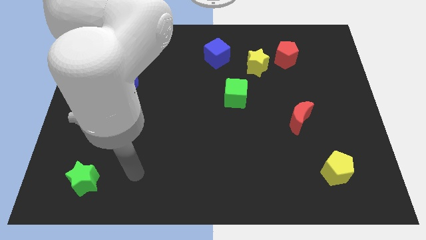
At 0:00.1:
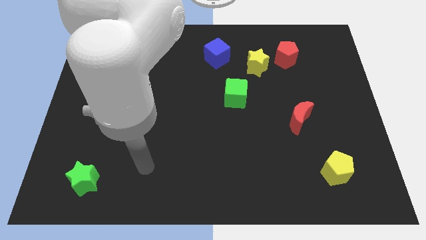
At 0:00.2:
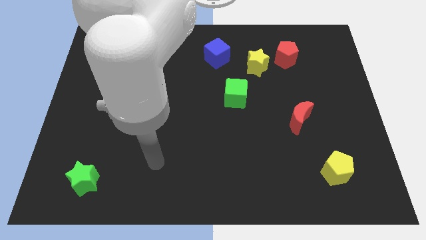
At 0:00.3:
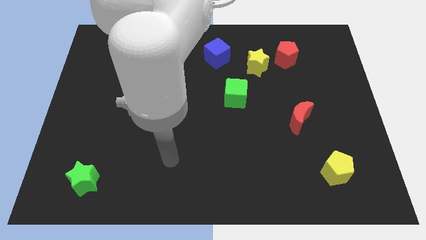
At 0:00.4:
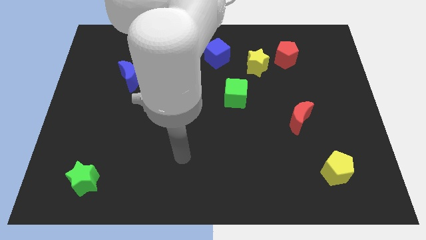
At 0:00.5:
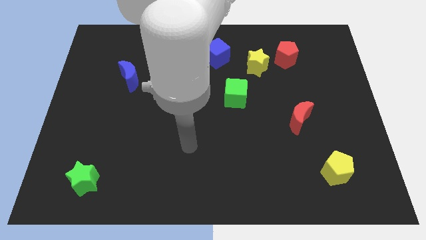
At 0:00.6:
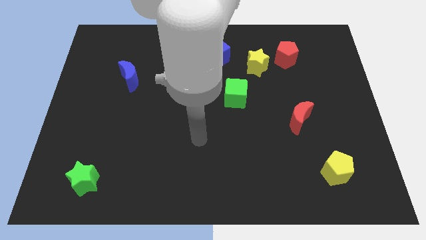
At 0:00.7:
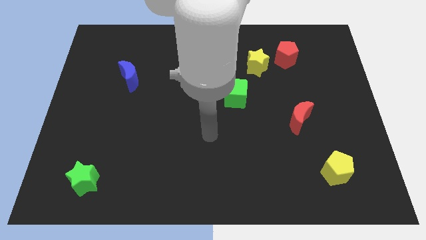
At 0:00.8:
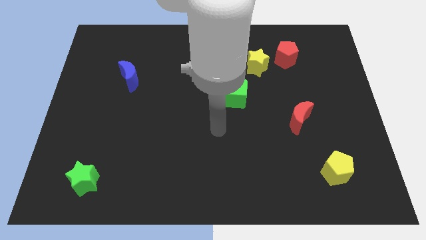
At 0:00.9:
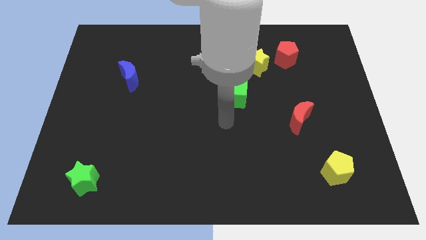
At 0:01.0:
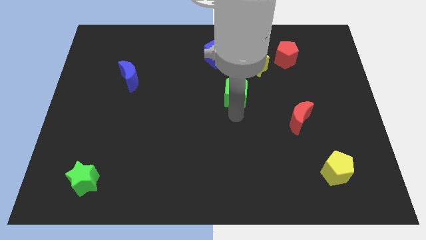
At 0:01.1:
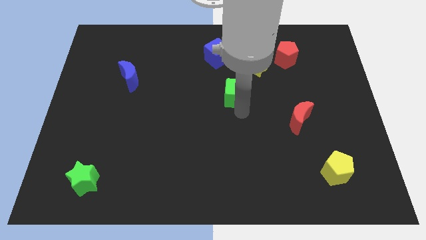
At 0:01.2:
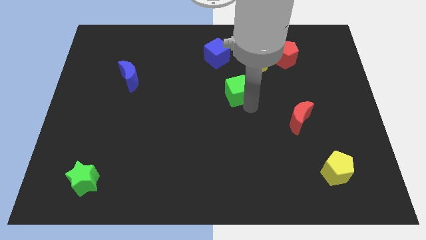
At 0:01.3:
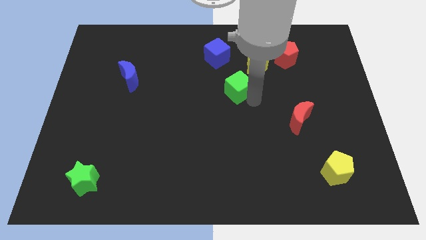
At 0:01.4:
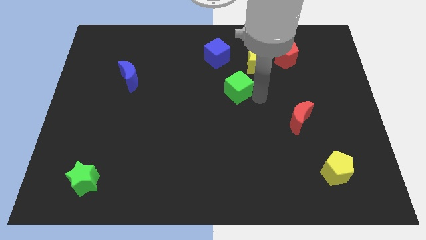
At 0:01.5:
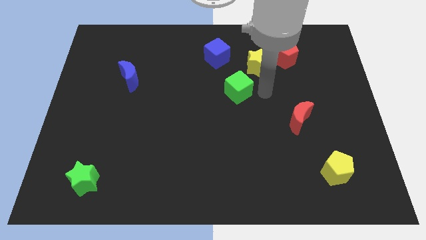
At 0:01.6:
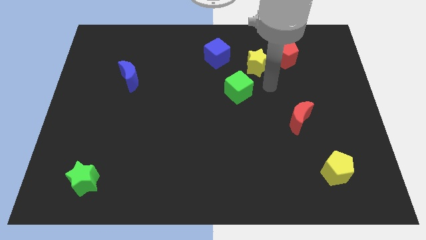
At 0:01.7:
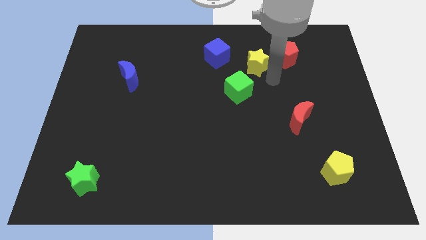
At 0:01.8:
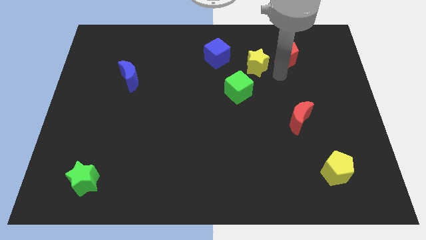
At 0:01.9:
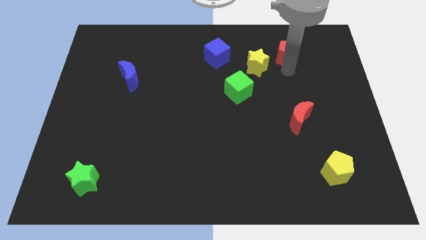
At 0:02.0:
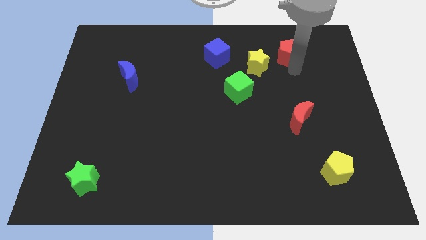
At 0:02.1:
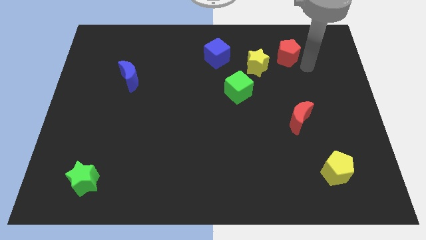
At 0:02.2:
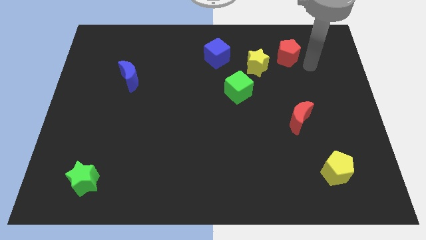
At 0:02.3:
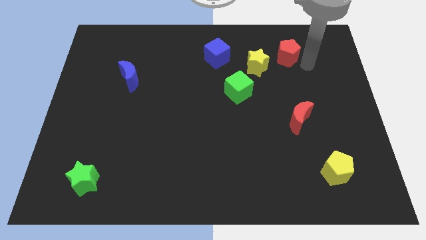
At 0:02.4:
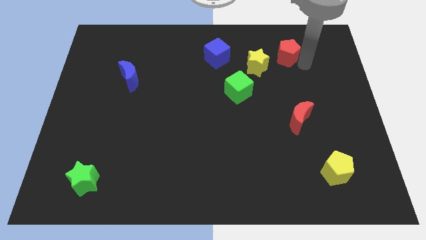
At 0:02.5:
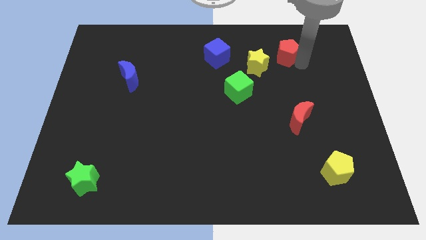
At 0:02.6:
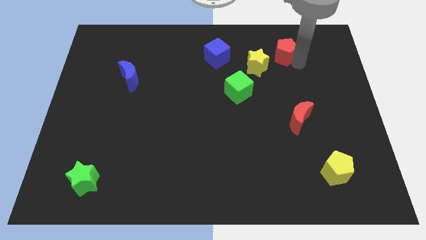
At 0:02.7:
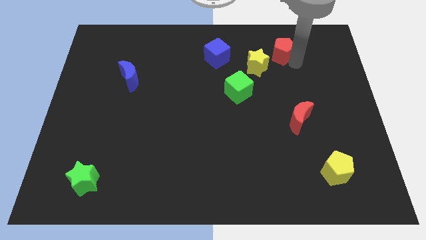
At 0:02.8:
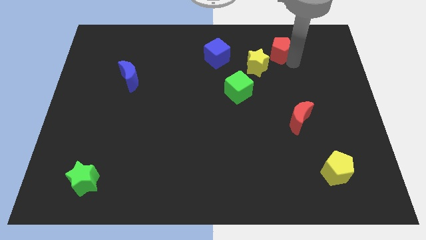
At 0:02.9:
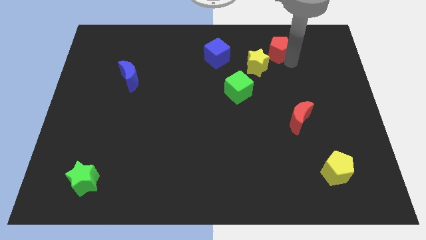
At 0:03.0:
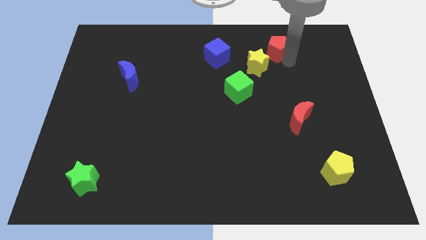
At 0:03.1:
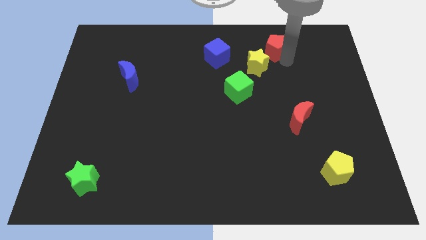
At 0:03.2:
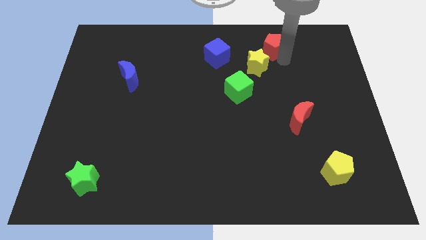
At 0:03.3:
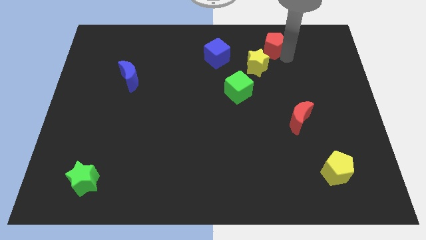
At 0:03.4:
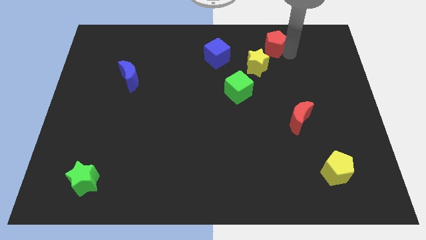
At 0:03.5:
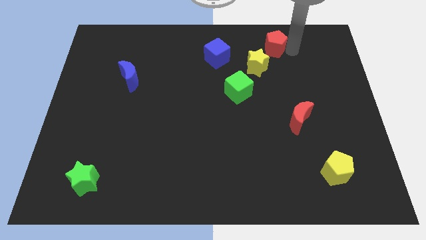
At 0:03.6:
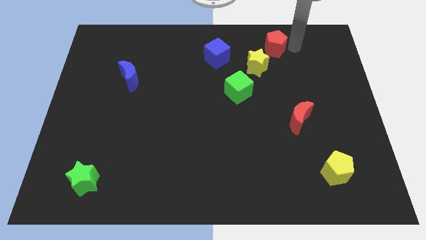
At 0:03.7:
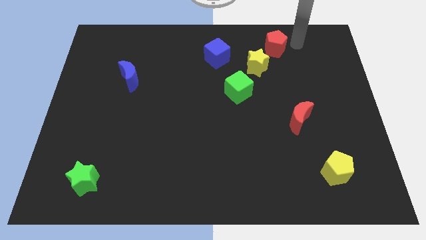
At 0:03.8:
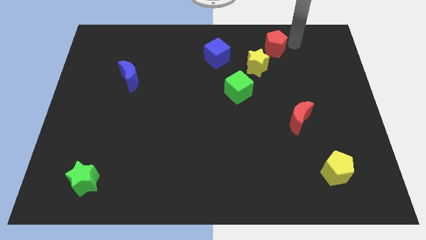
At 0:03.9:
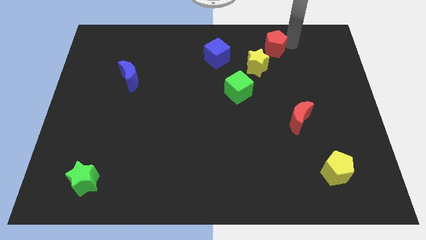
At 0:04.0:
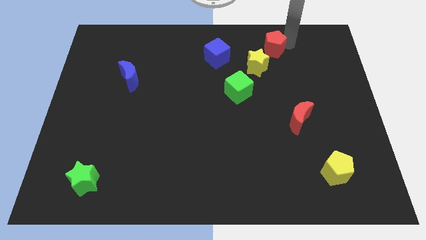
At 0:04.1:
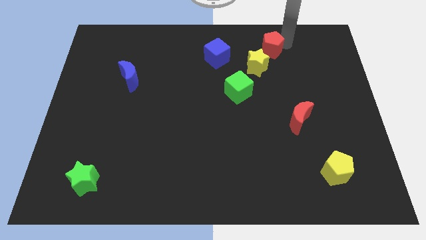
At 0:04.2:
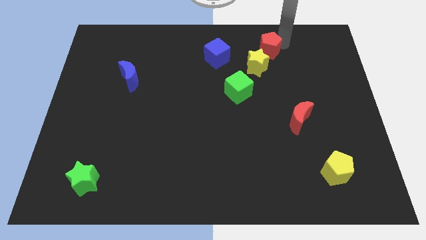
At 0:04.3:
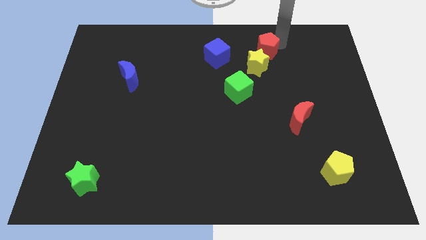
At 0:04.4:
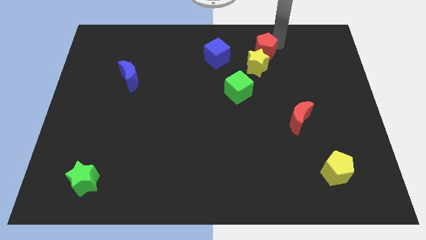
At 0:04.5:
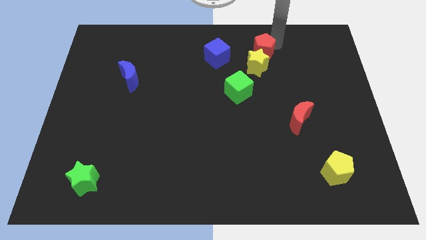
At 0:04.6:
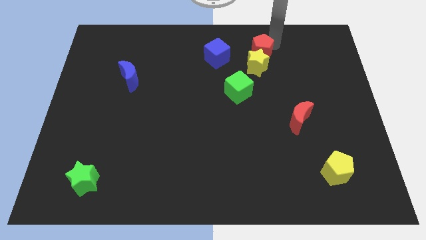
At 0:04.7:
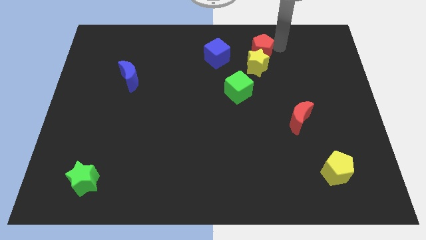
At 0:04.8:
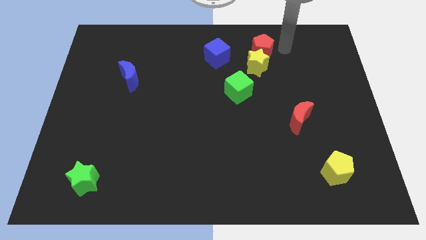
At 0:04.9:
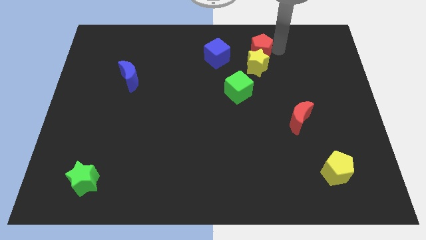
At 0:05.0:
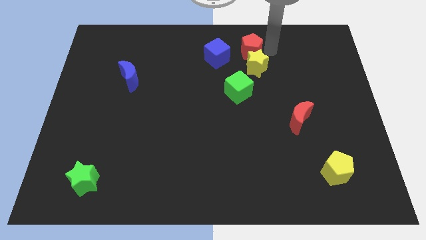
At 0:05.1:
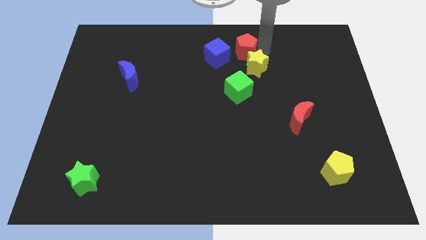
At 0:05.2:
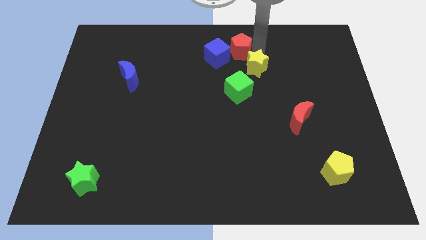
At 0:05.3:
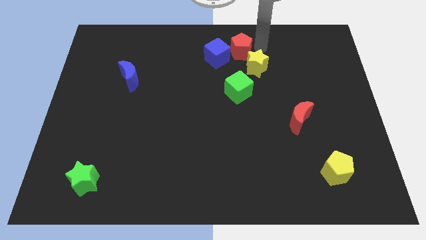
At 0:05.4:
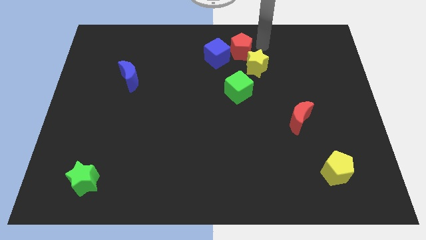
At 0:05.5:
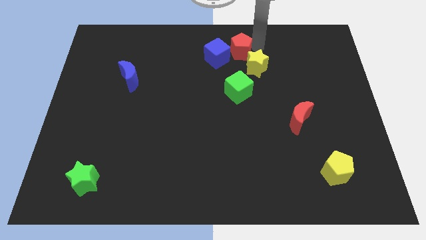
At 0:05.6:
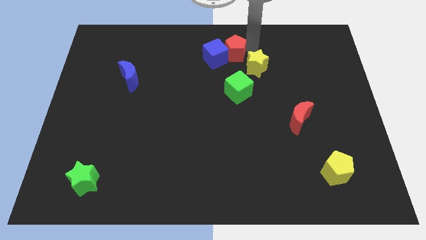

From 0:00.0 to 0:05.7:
slide the red pentagon close to the blue cube
